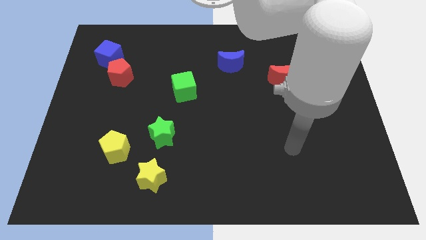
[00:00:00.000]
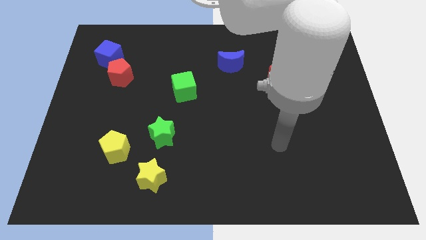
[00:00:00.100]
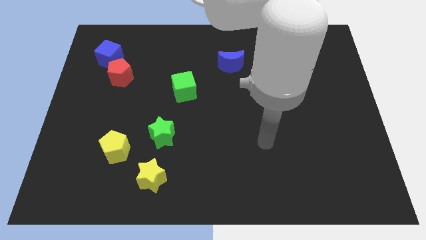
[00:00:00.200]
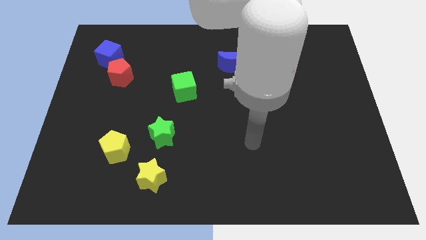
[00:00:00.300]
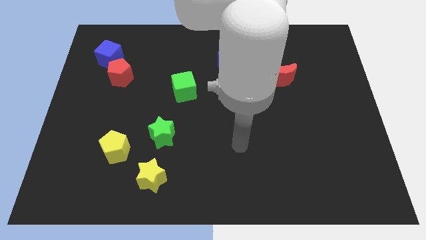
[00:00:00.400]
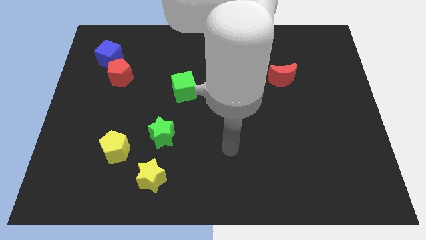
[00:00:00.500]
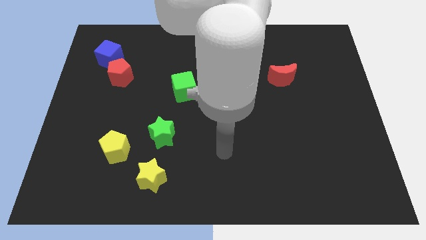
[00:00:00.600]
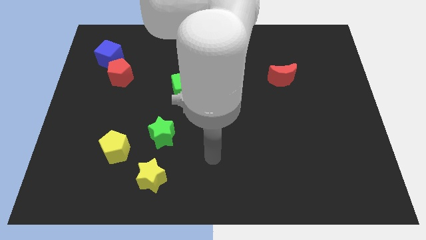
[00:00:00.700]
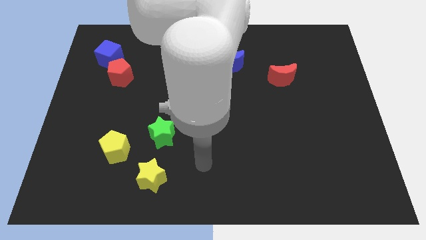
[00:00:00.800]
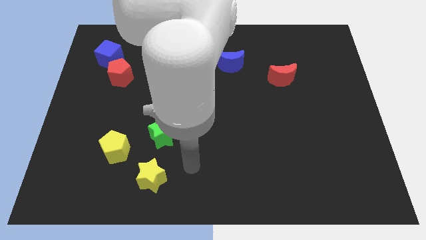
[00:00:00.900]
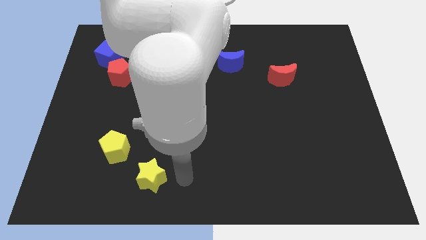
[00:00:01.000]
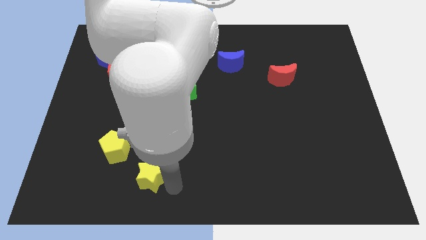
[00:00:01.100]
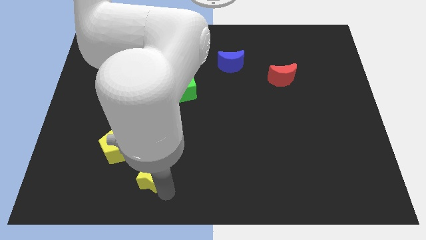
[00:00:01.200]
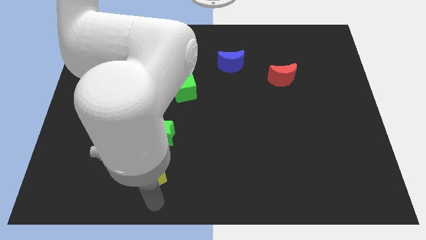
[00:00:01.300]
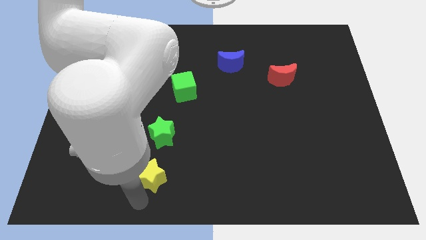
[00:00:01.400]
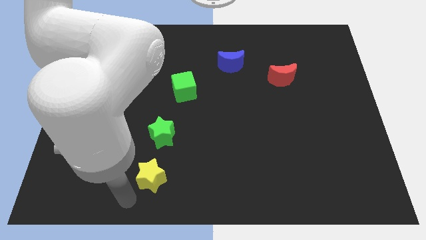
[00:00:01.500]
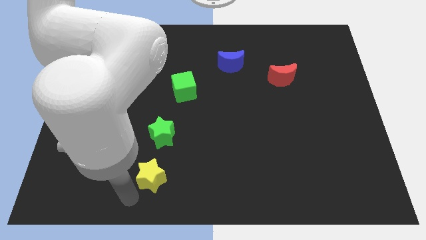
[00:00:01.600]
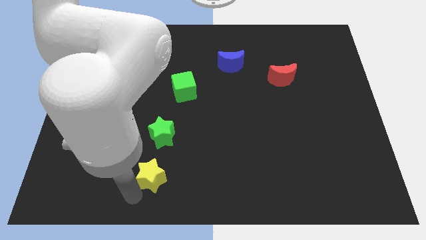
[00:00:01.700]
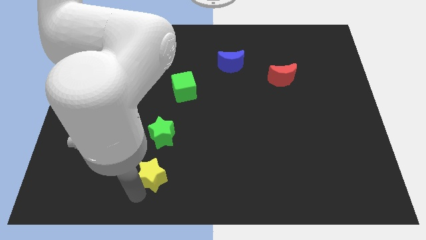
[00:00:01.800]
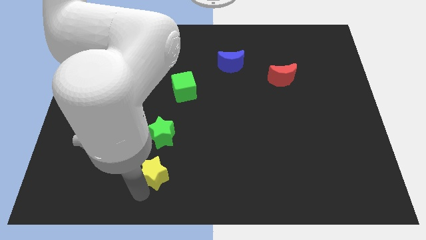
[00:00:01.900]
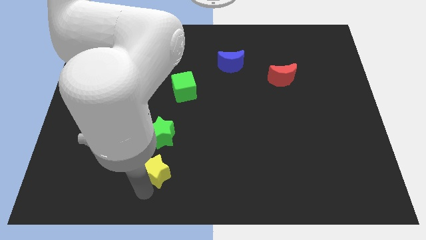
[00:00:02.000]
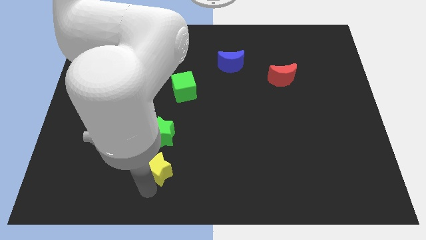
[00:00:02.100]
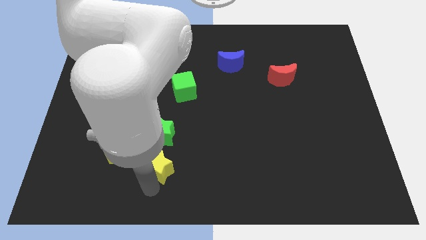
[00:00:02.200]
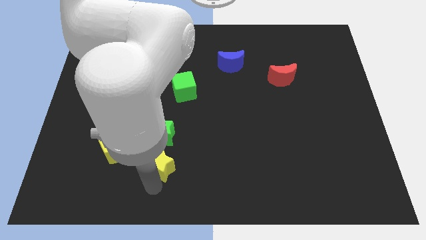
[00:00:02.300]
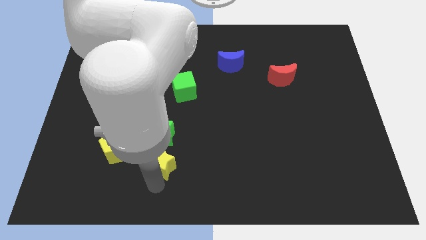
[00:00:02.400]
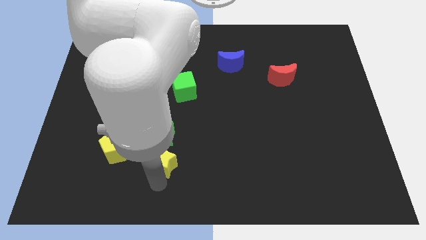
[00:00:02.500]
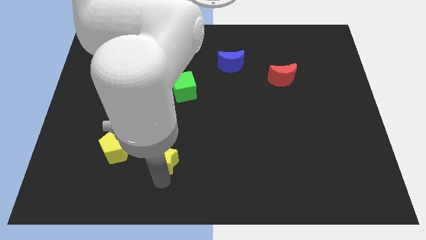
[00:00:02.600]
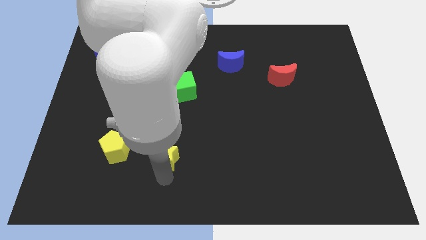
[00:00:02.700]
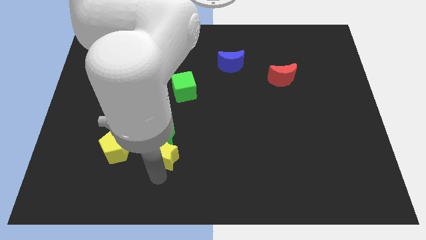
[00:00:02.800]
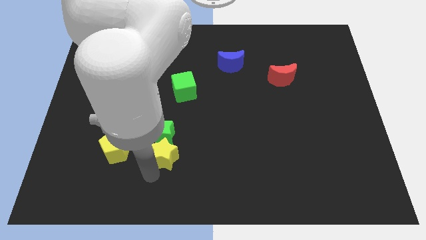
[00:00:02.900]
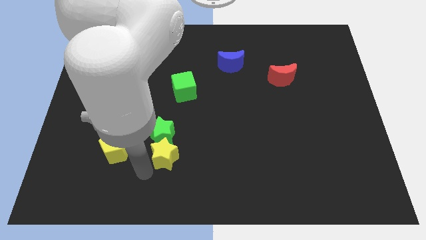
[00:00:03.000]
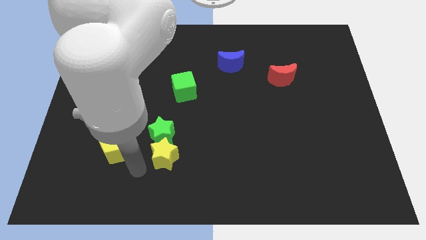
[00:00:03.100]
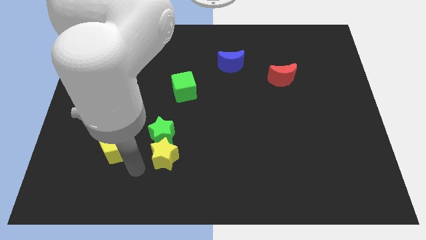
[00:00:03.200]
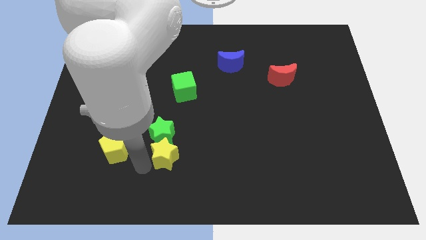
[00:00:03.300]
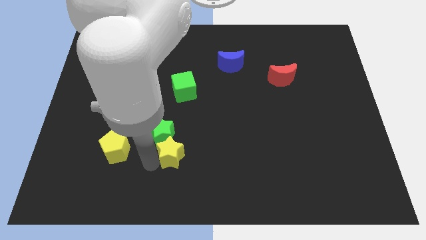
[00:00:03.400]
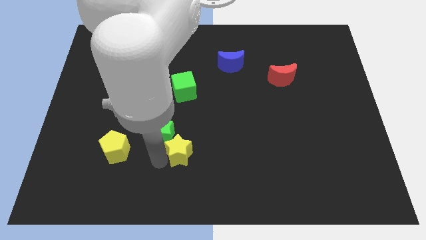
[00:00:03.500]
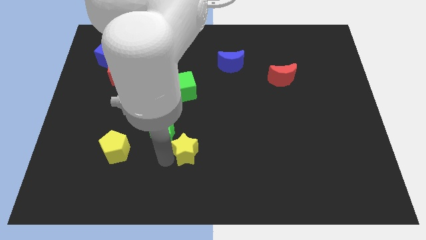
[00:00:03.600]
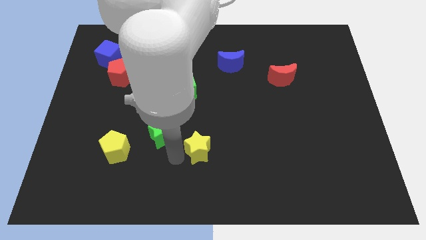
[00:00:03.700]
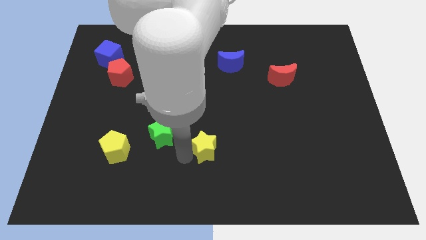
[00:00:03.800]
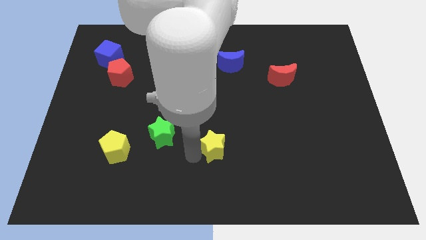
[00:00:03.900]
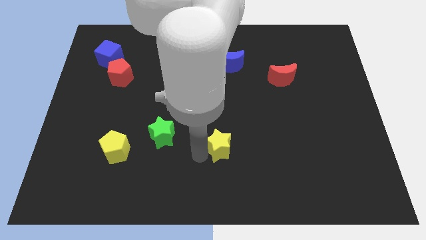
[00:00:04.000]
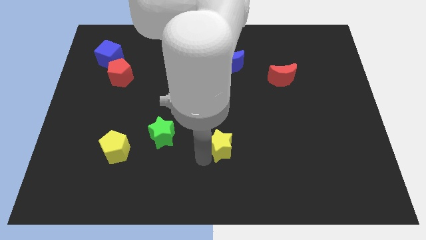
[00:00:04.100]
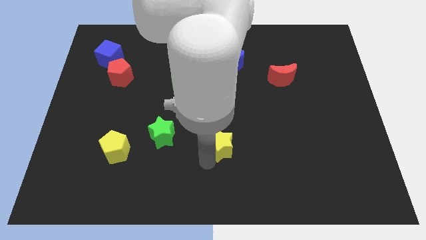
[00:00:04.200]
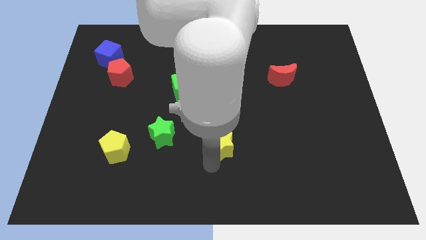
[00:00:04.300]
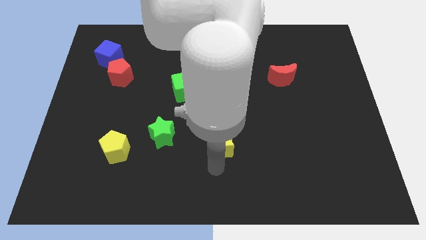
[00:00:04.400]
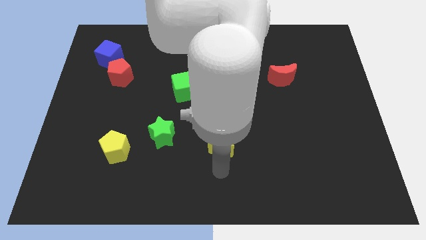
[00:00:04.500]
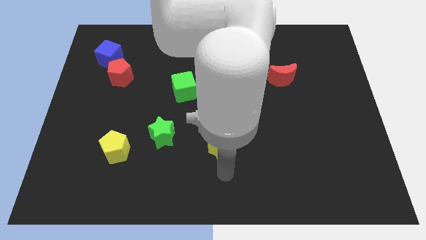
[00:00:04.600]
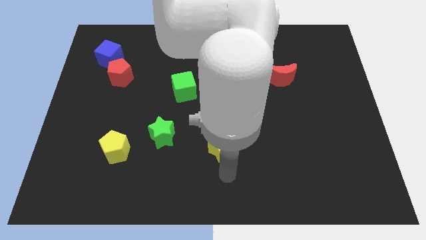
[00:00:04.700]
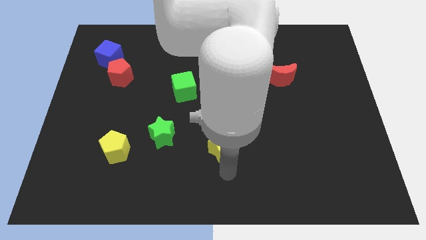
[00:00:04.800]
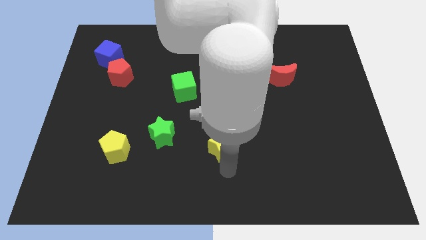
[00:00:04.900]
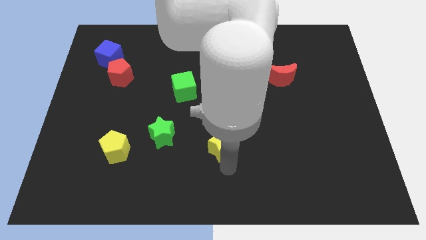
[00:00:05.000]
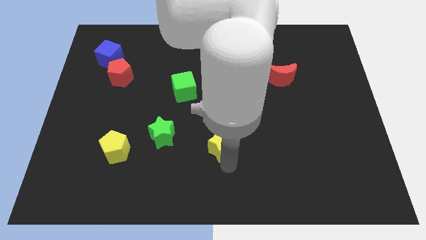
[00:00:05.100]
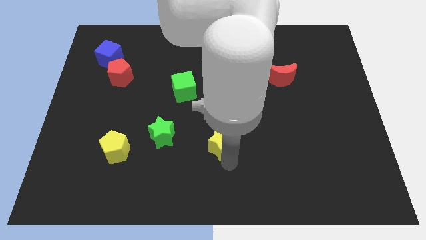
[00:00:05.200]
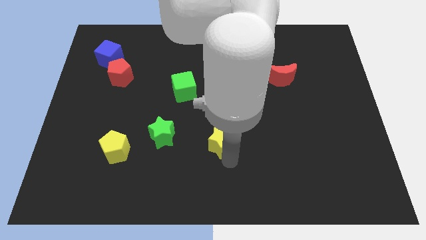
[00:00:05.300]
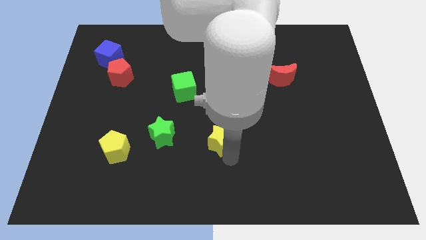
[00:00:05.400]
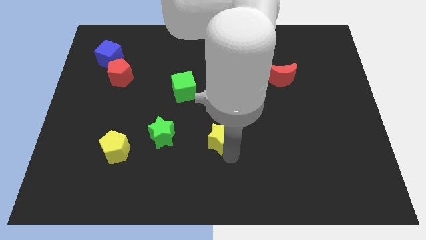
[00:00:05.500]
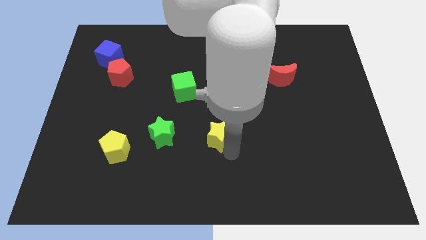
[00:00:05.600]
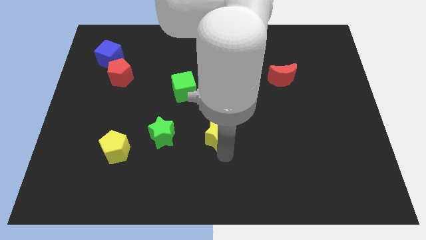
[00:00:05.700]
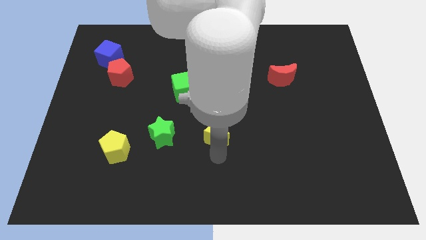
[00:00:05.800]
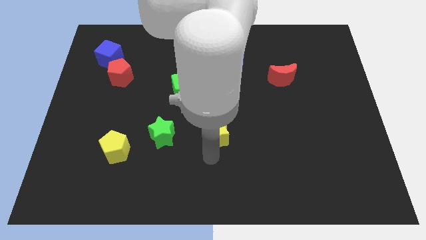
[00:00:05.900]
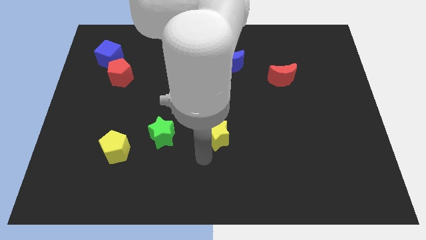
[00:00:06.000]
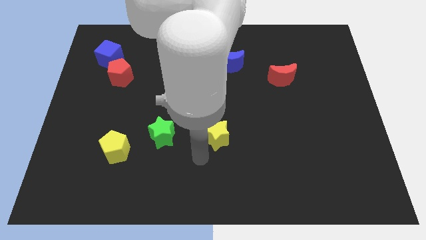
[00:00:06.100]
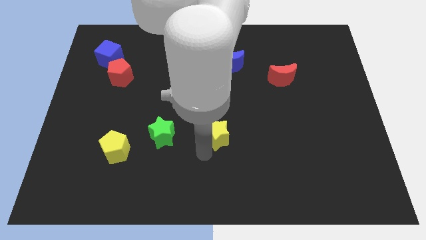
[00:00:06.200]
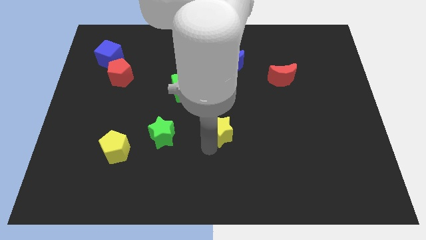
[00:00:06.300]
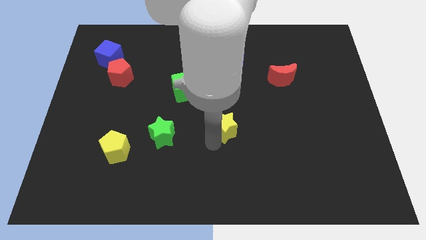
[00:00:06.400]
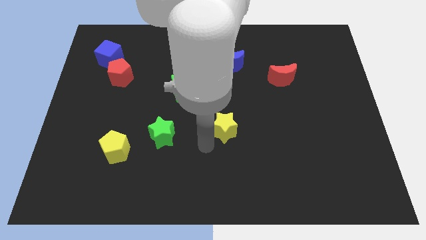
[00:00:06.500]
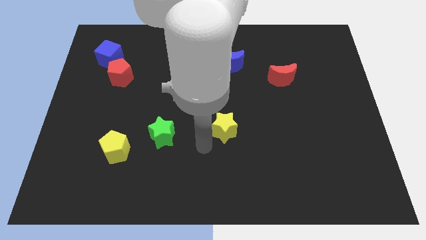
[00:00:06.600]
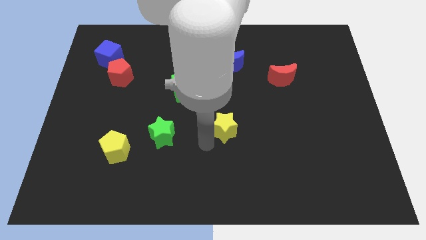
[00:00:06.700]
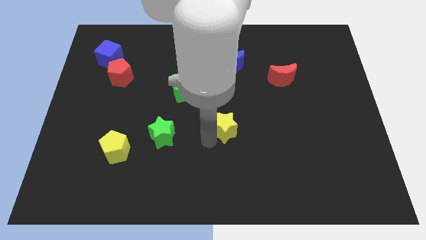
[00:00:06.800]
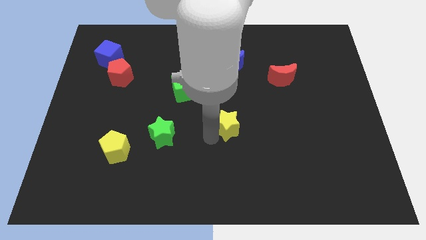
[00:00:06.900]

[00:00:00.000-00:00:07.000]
push the yellow star upwards and to the right diagonally

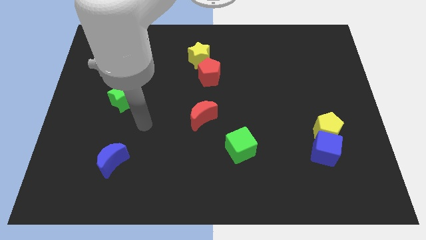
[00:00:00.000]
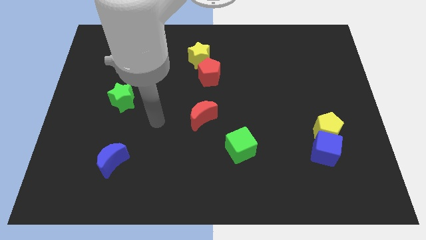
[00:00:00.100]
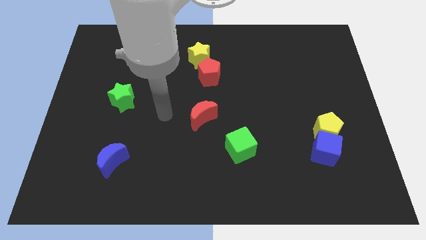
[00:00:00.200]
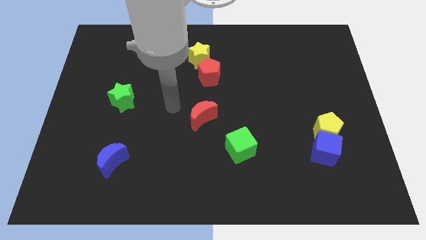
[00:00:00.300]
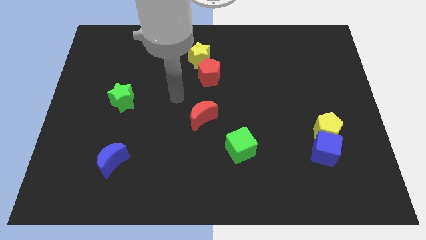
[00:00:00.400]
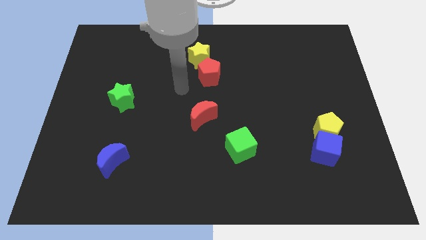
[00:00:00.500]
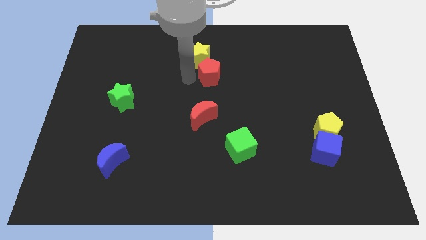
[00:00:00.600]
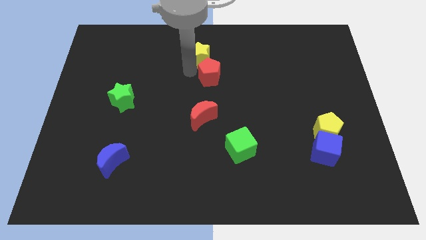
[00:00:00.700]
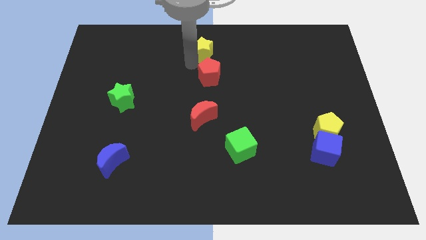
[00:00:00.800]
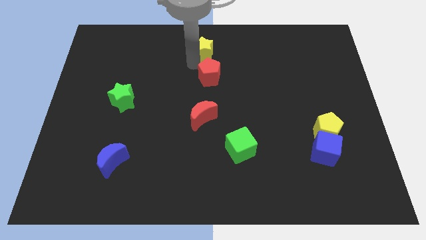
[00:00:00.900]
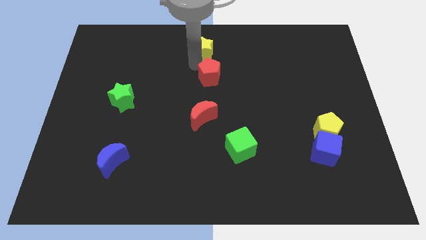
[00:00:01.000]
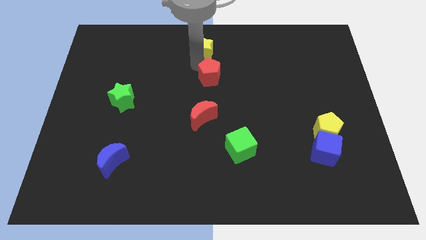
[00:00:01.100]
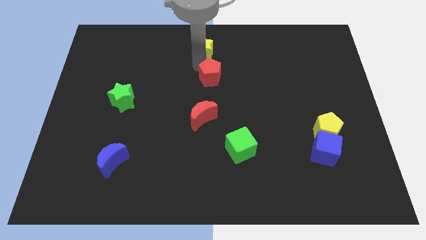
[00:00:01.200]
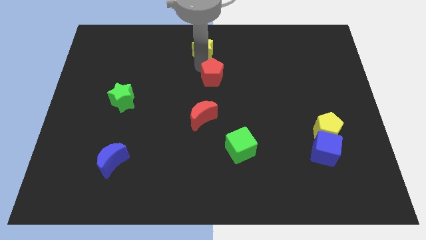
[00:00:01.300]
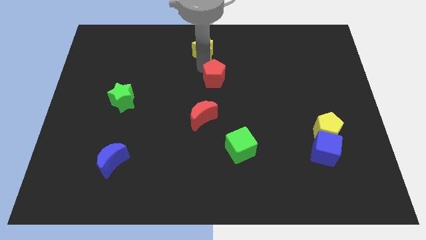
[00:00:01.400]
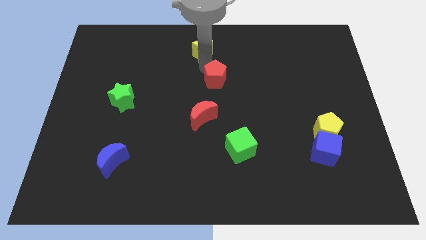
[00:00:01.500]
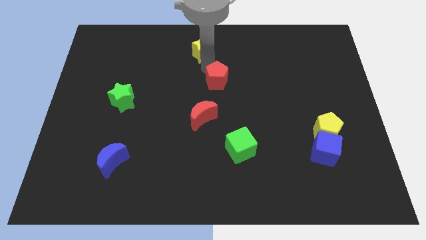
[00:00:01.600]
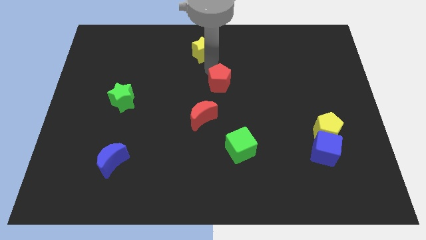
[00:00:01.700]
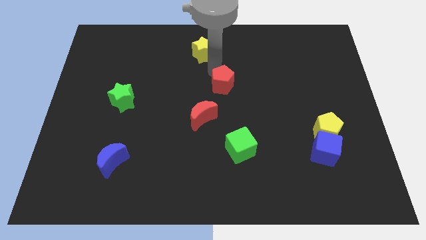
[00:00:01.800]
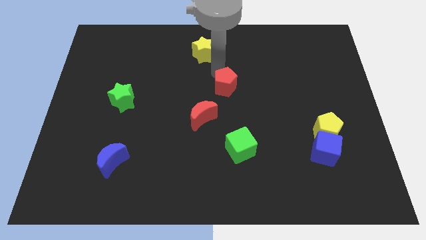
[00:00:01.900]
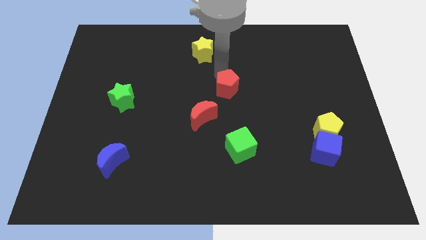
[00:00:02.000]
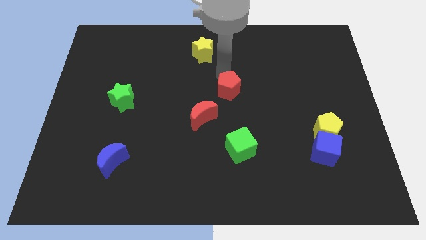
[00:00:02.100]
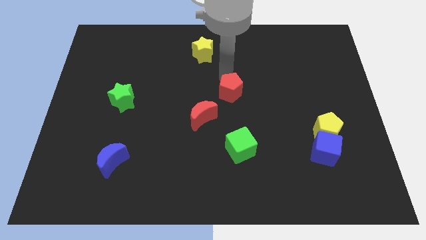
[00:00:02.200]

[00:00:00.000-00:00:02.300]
push the red pentagon downwards and then to the right slightly
